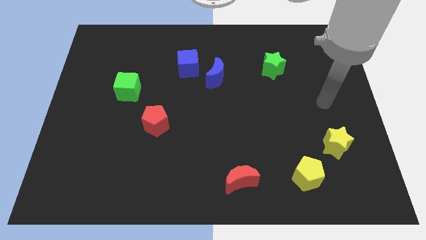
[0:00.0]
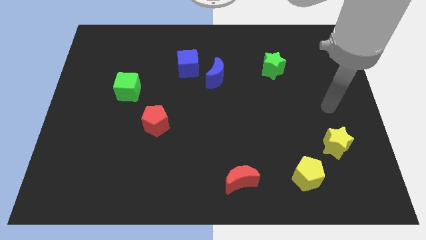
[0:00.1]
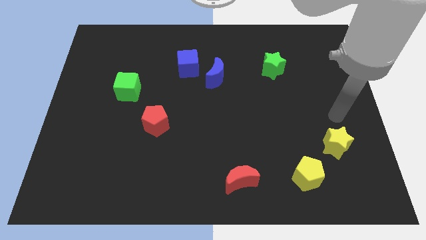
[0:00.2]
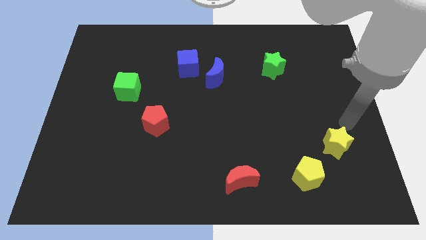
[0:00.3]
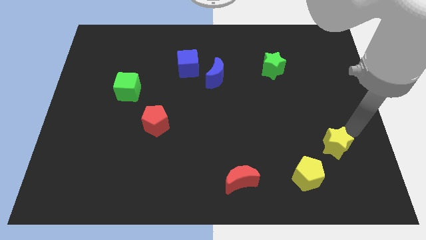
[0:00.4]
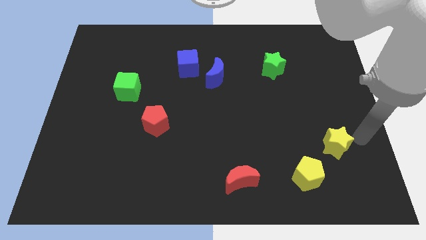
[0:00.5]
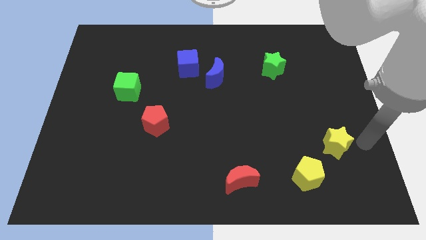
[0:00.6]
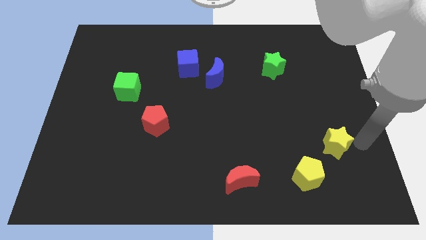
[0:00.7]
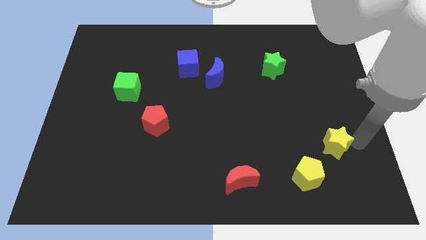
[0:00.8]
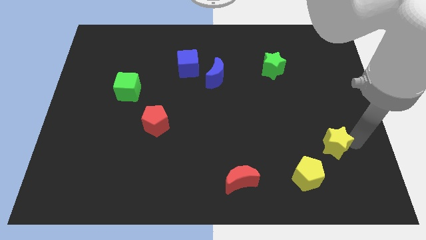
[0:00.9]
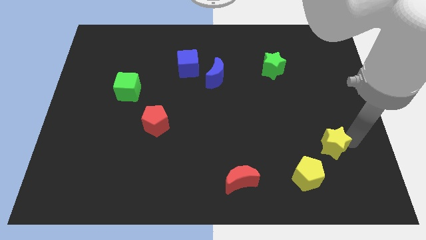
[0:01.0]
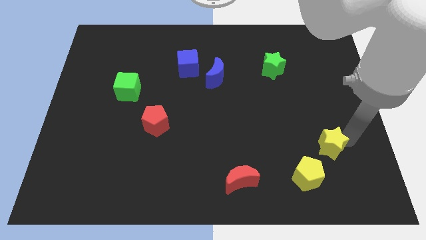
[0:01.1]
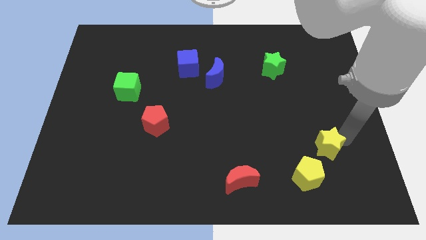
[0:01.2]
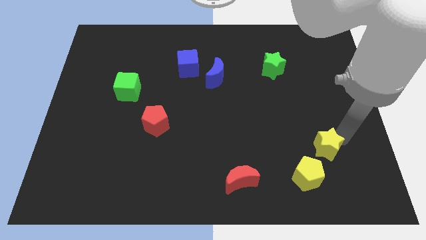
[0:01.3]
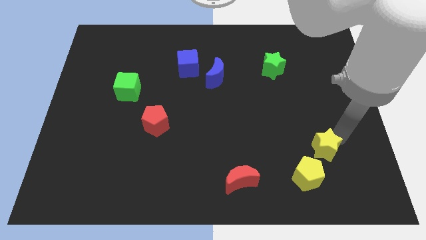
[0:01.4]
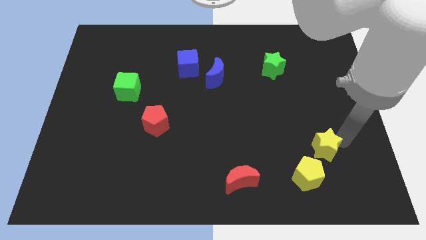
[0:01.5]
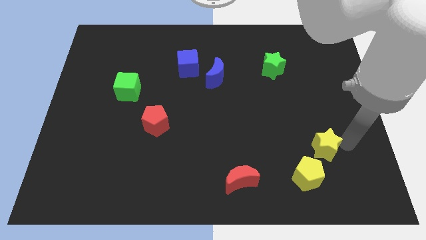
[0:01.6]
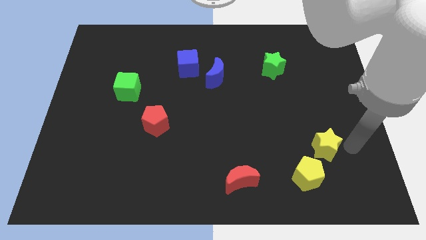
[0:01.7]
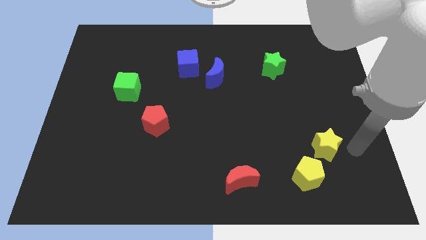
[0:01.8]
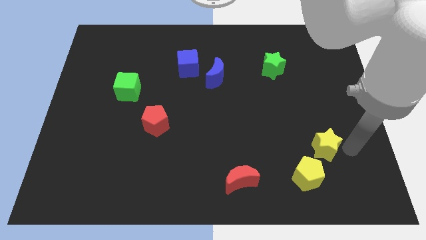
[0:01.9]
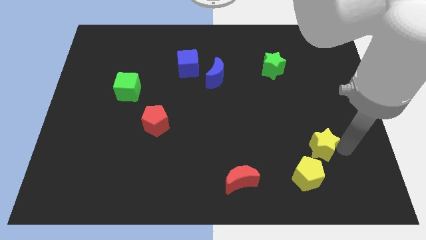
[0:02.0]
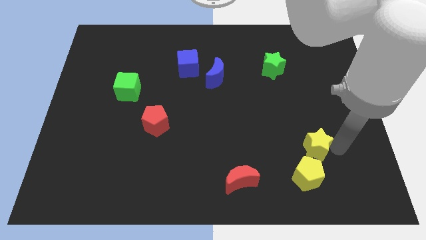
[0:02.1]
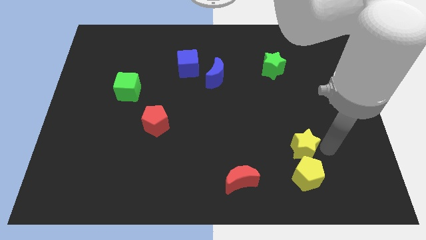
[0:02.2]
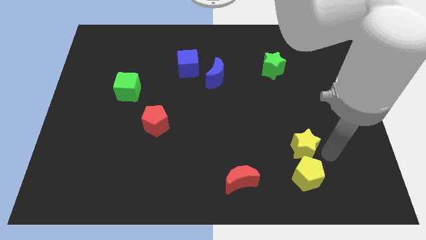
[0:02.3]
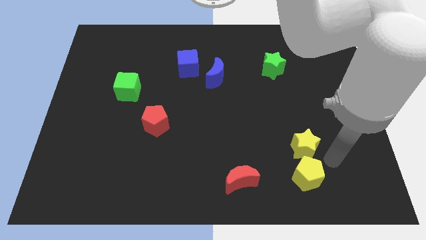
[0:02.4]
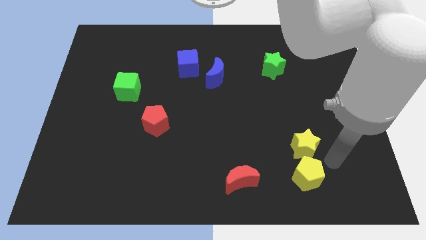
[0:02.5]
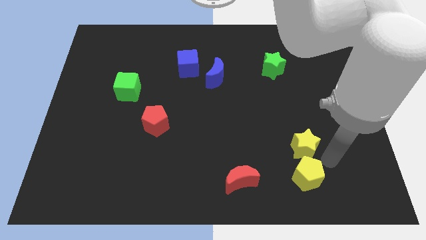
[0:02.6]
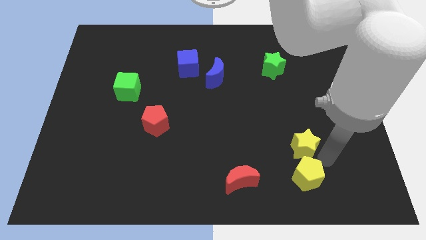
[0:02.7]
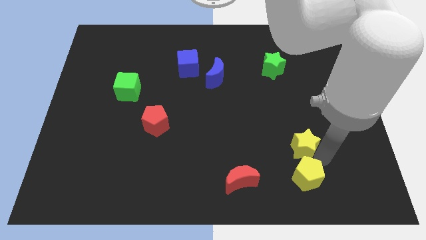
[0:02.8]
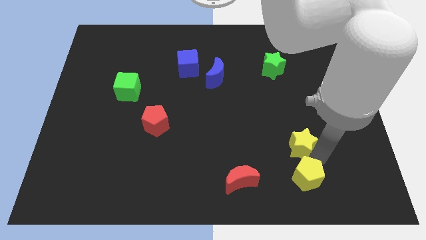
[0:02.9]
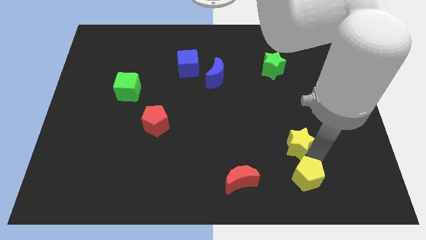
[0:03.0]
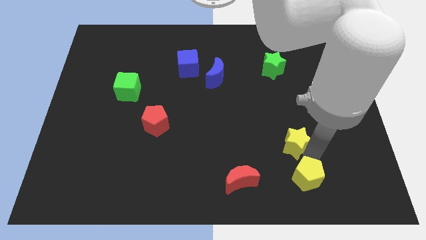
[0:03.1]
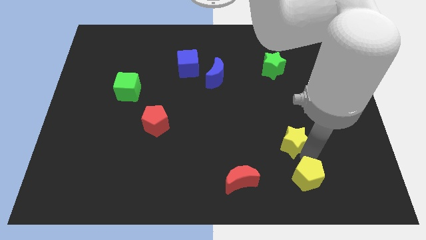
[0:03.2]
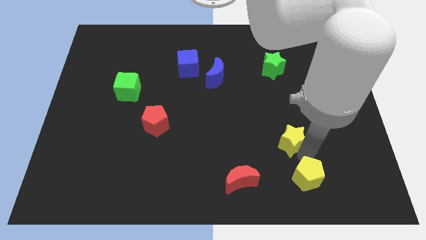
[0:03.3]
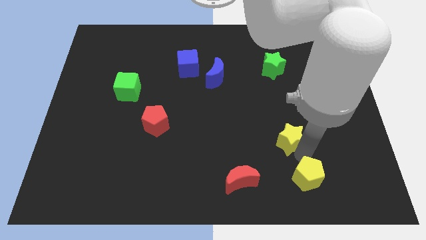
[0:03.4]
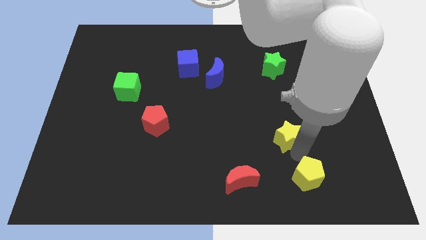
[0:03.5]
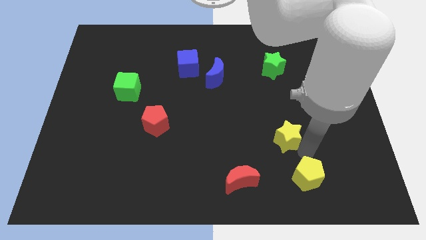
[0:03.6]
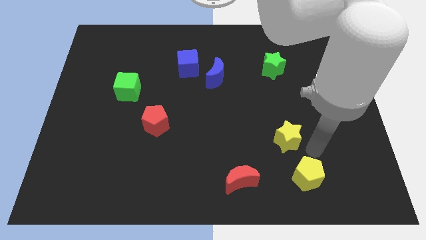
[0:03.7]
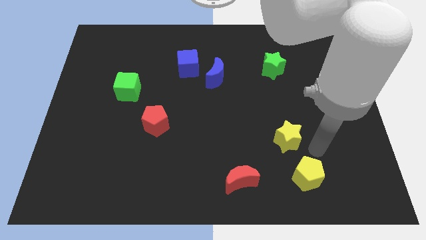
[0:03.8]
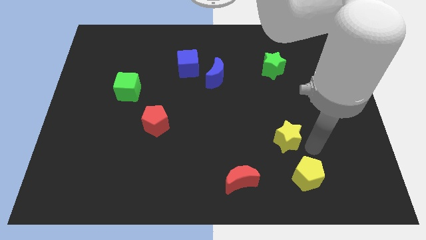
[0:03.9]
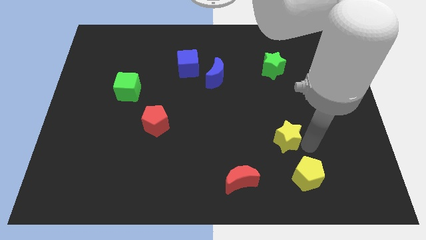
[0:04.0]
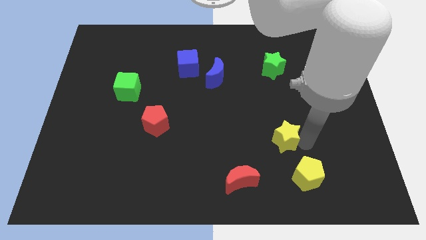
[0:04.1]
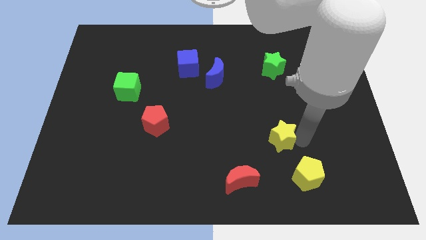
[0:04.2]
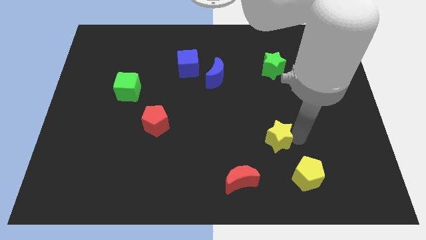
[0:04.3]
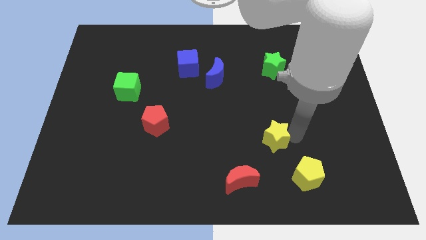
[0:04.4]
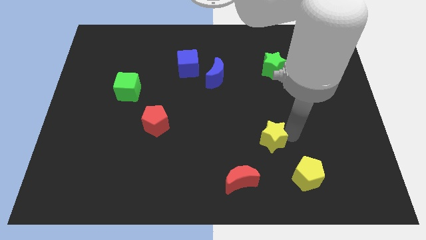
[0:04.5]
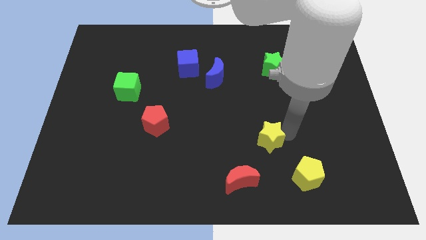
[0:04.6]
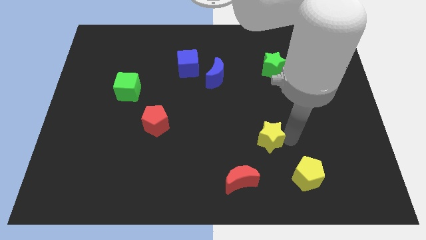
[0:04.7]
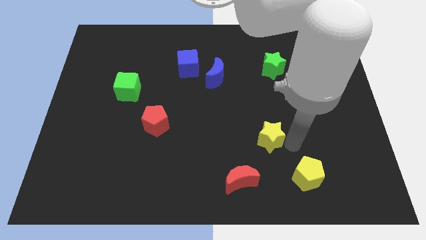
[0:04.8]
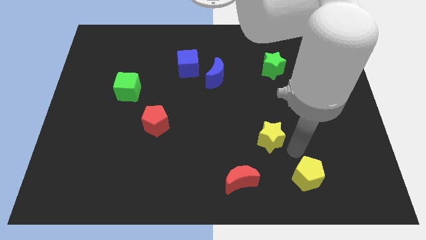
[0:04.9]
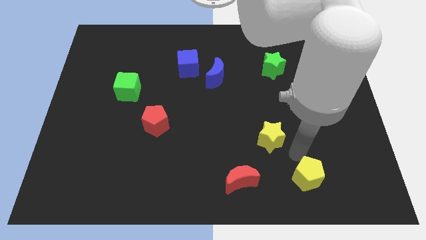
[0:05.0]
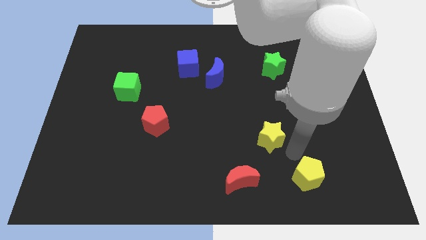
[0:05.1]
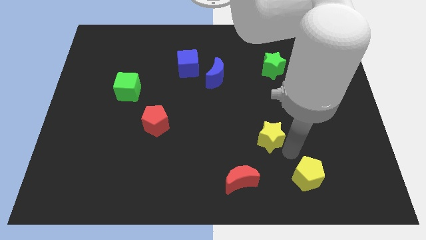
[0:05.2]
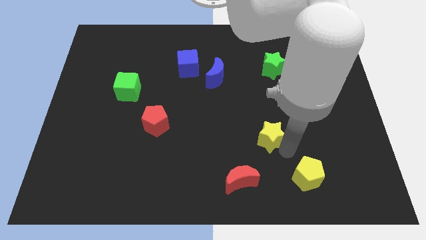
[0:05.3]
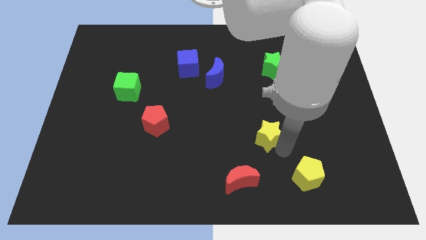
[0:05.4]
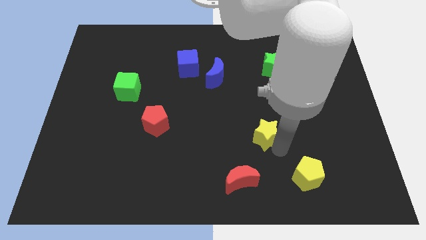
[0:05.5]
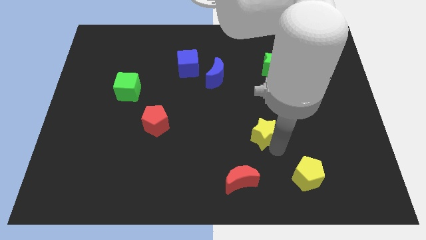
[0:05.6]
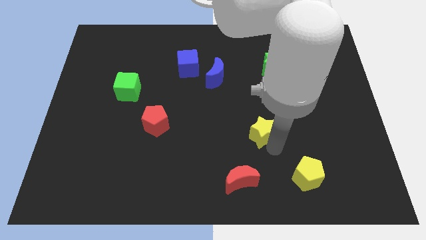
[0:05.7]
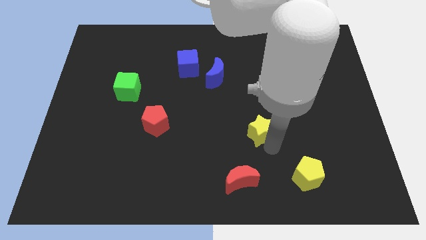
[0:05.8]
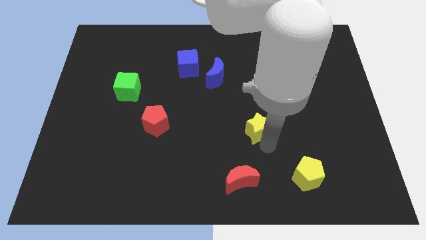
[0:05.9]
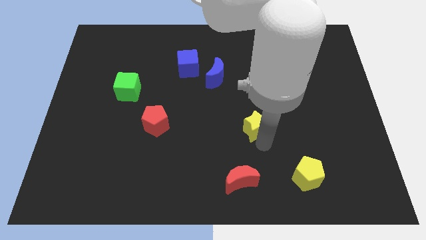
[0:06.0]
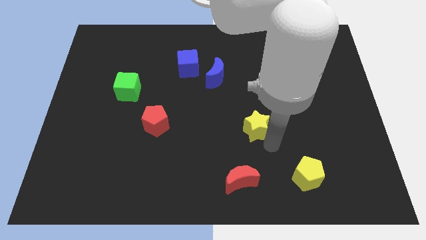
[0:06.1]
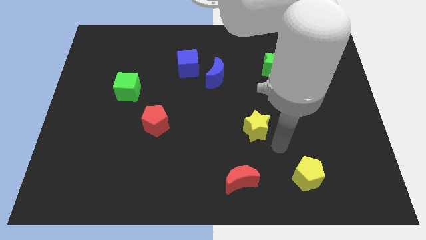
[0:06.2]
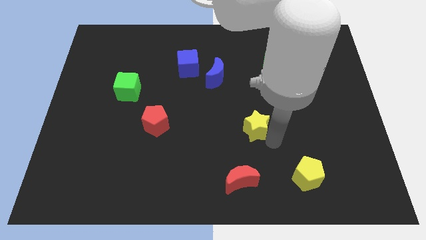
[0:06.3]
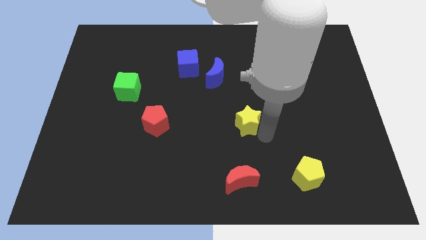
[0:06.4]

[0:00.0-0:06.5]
slide the yellow star to the center
